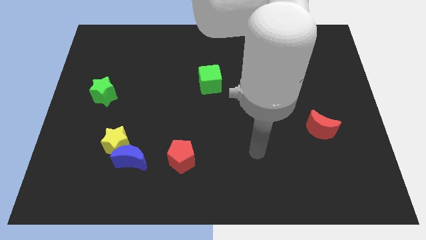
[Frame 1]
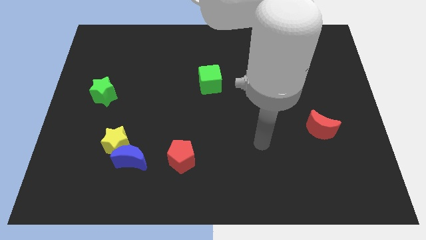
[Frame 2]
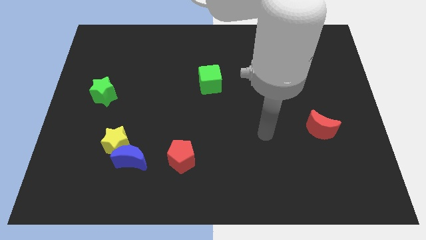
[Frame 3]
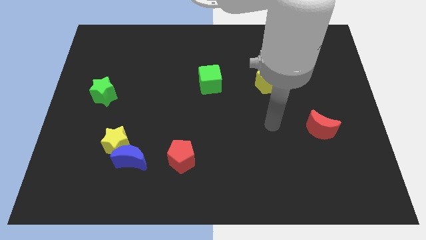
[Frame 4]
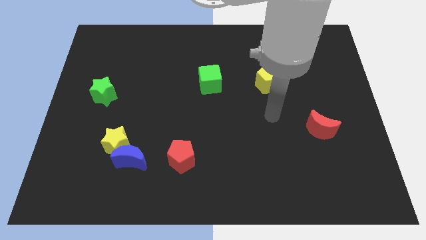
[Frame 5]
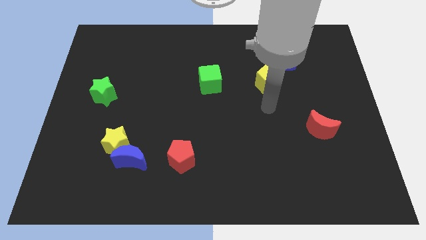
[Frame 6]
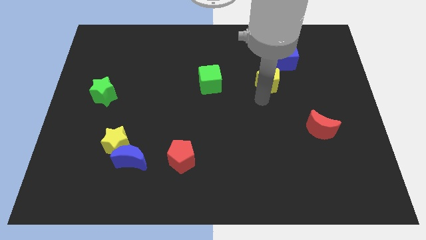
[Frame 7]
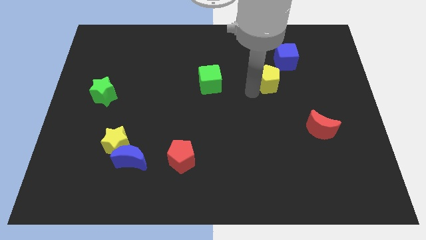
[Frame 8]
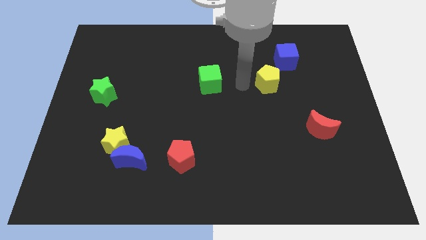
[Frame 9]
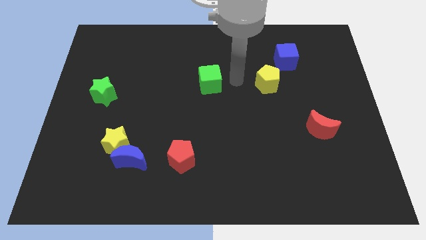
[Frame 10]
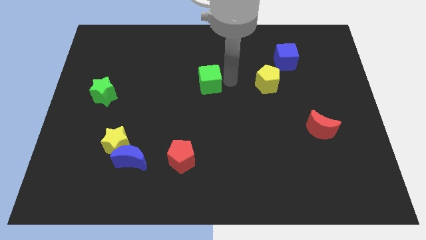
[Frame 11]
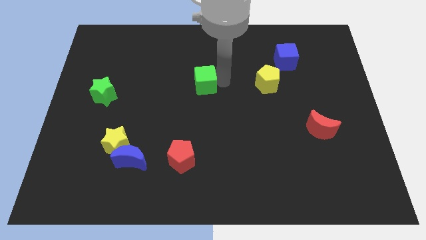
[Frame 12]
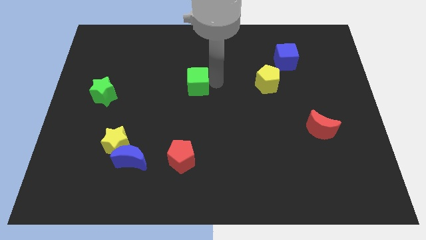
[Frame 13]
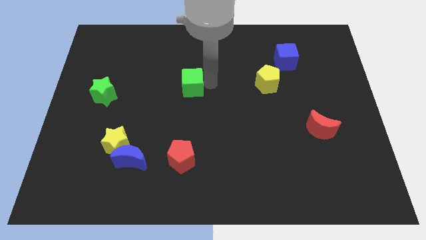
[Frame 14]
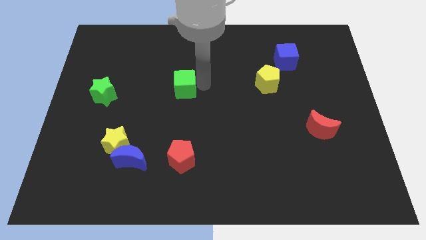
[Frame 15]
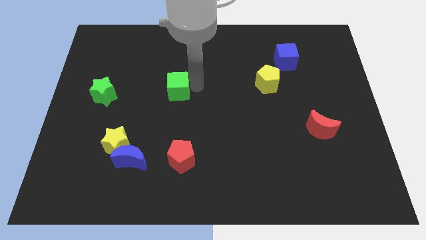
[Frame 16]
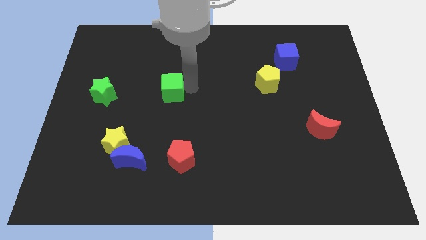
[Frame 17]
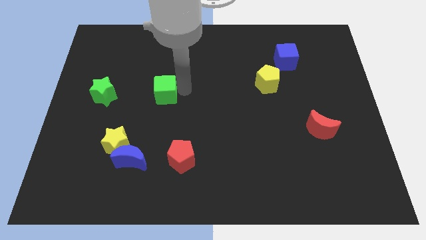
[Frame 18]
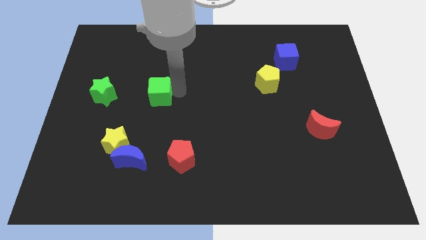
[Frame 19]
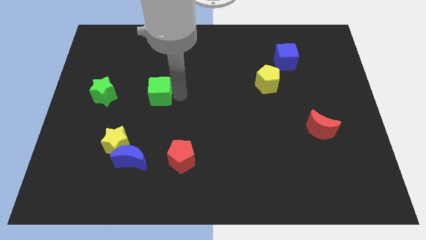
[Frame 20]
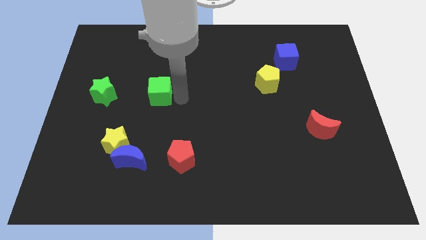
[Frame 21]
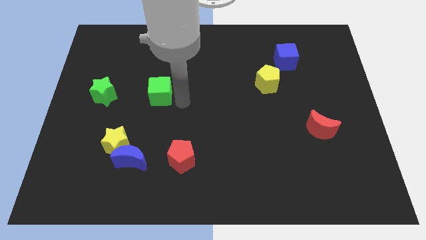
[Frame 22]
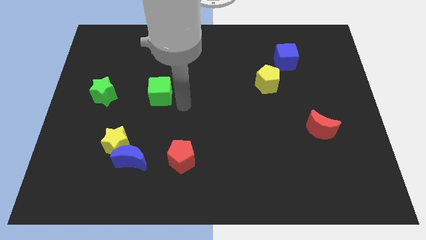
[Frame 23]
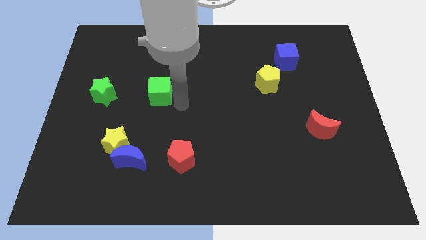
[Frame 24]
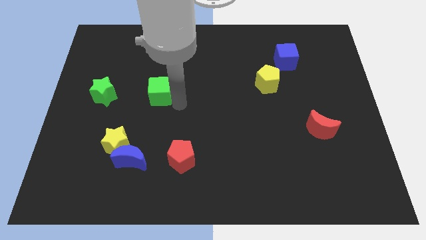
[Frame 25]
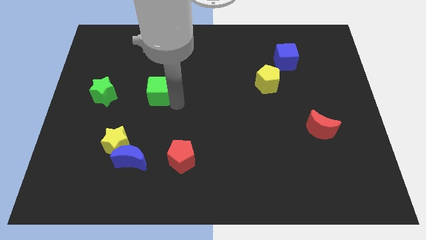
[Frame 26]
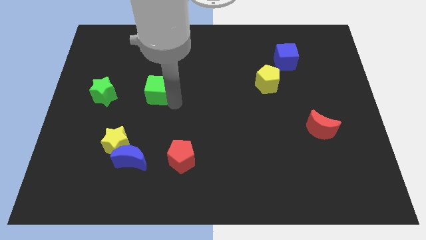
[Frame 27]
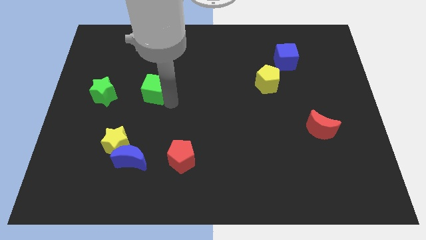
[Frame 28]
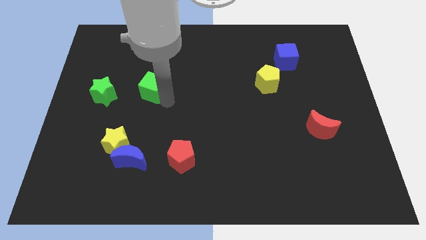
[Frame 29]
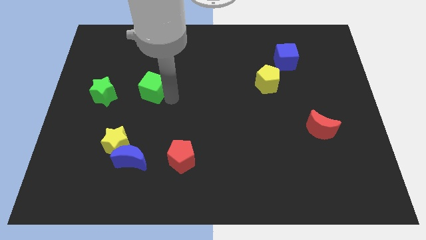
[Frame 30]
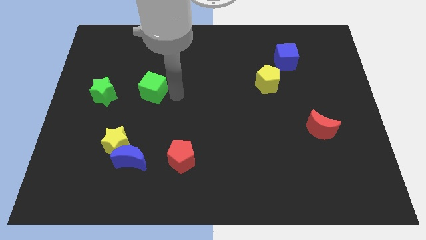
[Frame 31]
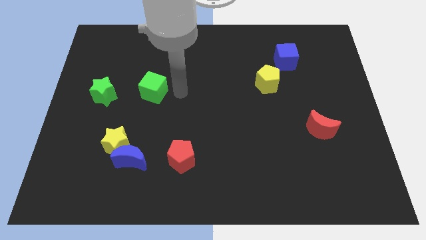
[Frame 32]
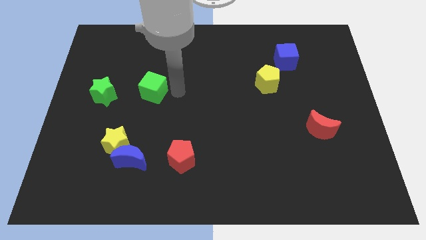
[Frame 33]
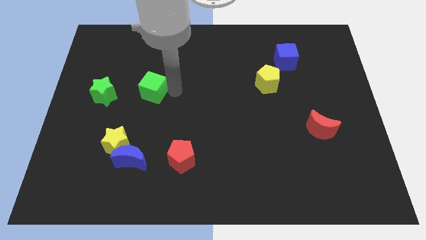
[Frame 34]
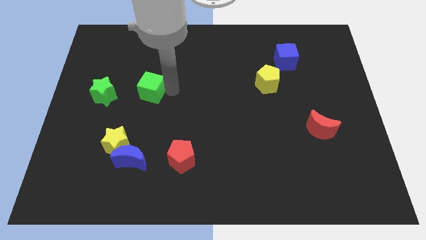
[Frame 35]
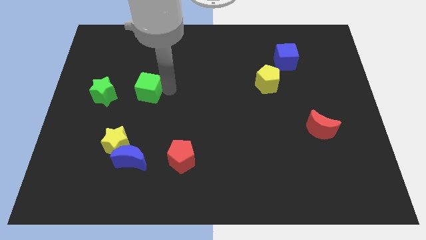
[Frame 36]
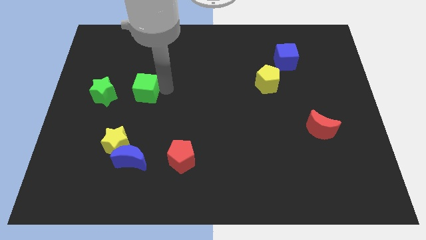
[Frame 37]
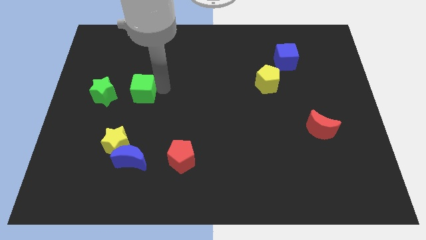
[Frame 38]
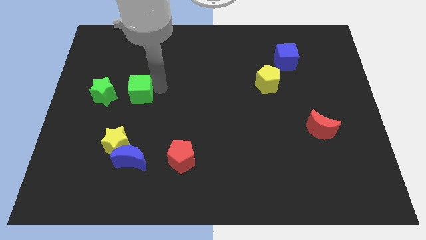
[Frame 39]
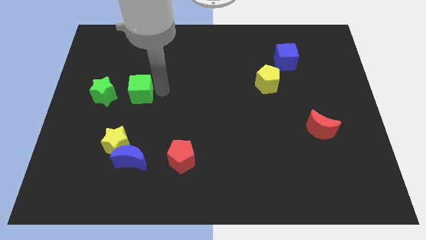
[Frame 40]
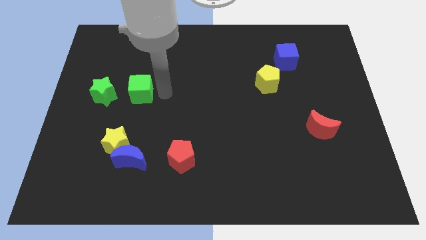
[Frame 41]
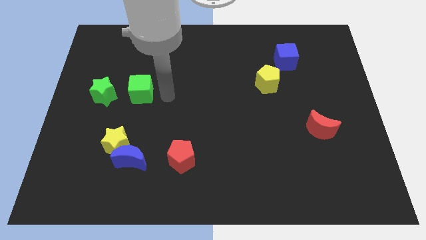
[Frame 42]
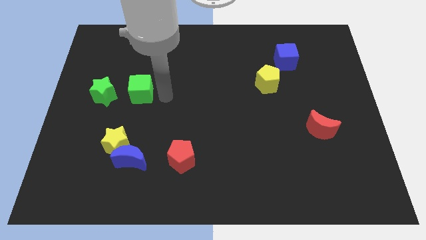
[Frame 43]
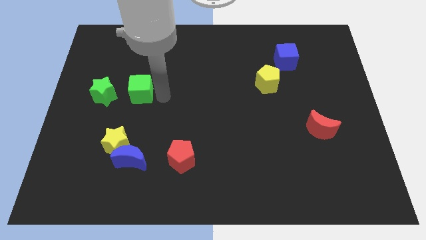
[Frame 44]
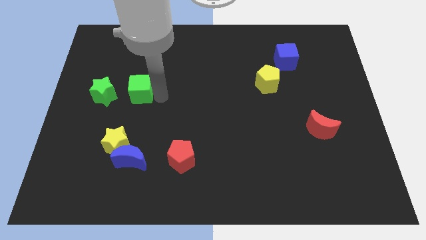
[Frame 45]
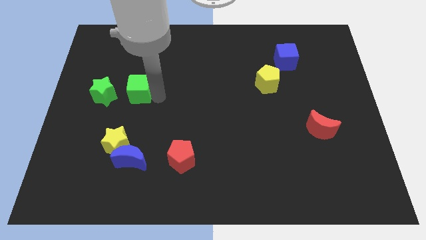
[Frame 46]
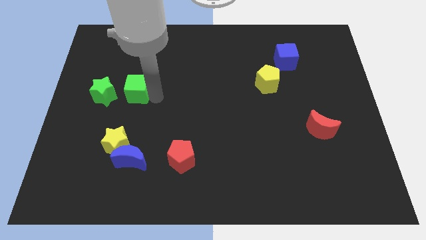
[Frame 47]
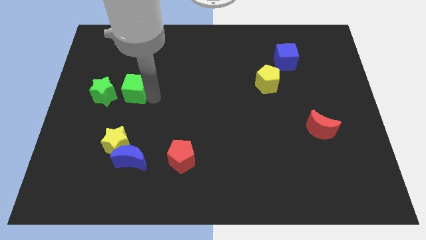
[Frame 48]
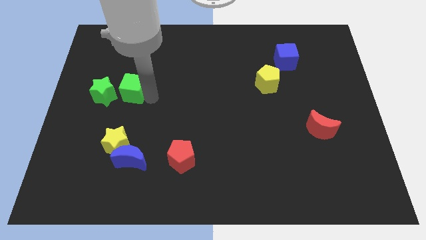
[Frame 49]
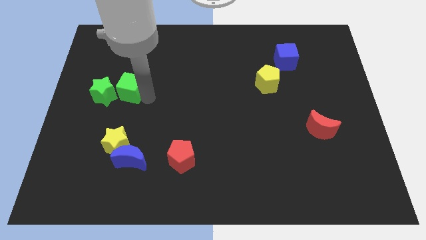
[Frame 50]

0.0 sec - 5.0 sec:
push the green cube towards the green star

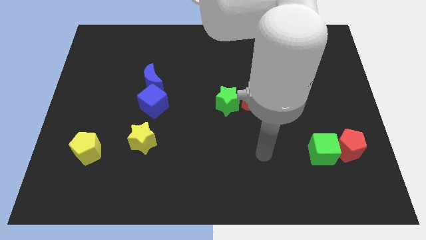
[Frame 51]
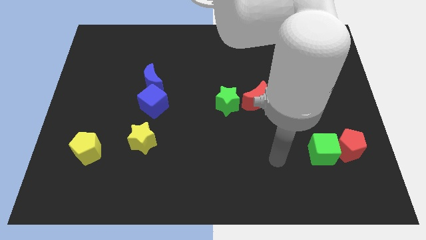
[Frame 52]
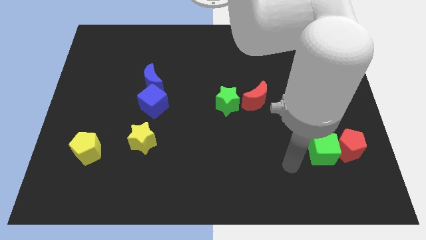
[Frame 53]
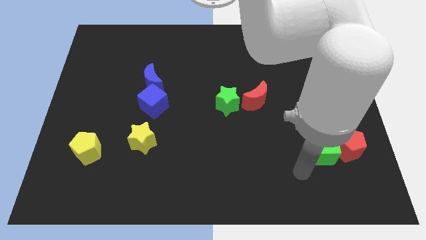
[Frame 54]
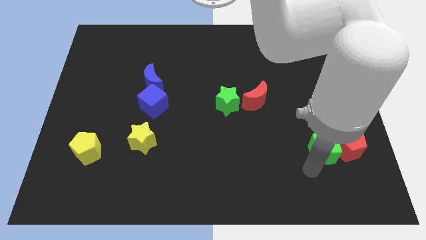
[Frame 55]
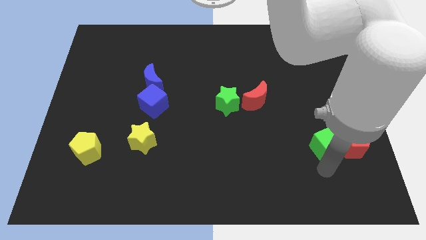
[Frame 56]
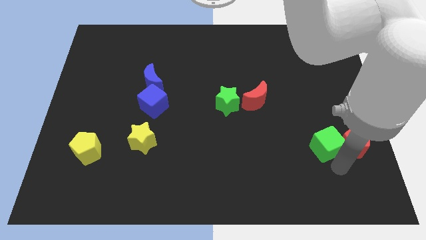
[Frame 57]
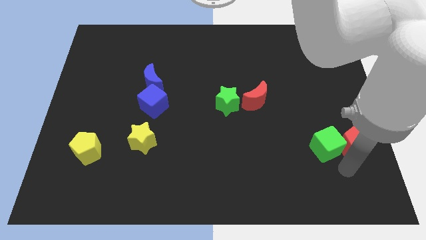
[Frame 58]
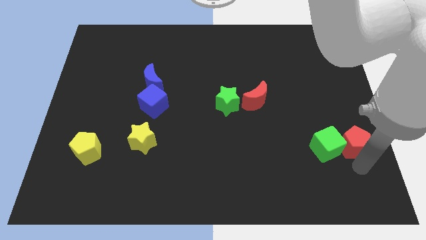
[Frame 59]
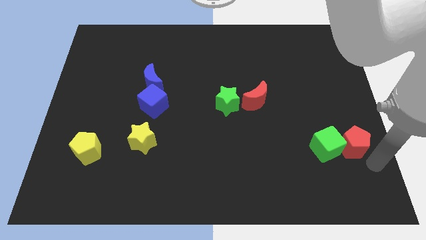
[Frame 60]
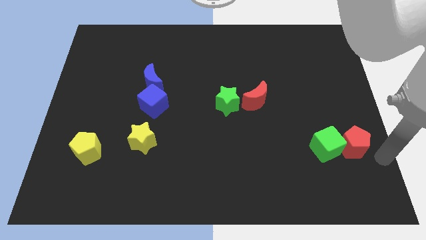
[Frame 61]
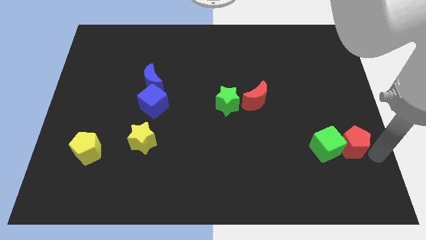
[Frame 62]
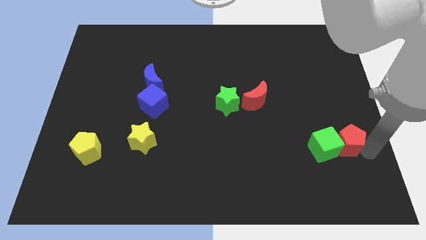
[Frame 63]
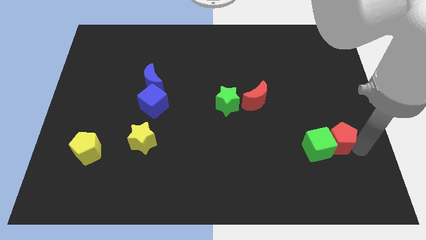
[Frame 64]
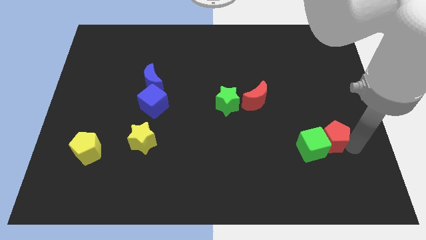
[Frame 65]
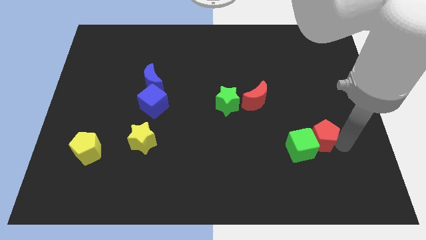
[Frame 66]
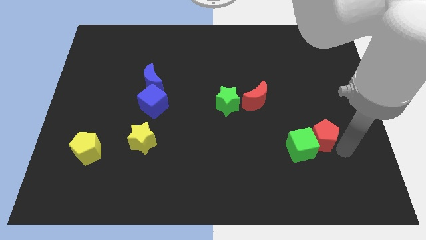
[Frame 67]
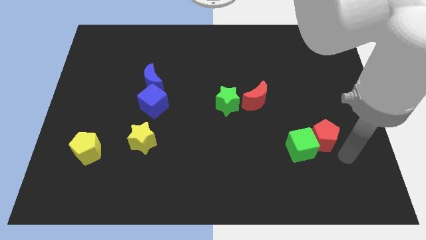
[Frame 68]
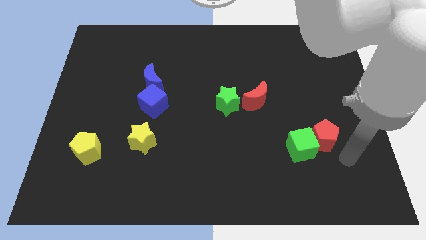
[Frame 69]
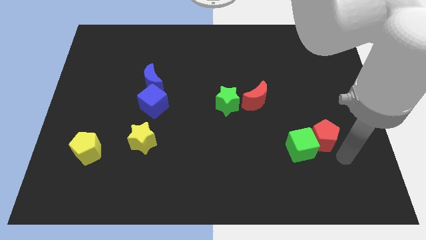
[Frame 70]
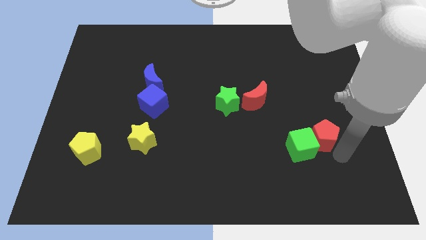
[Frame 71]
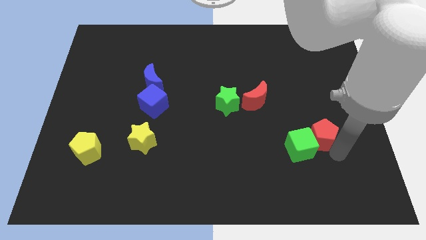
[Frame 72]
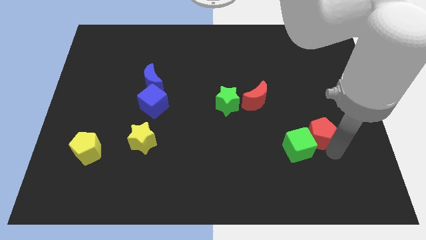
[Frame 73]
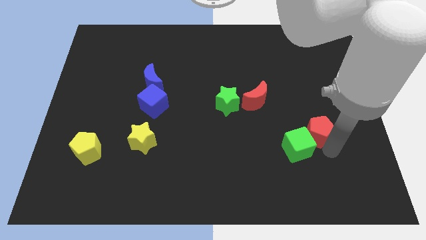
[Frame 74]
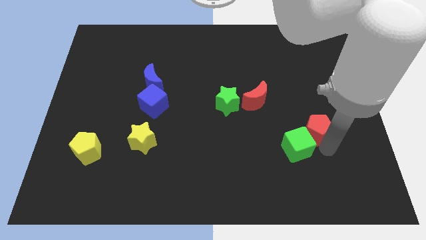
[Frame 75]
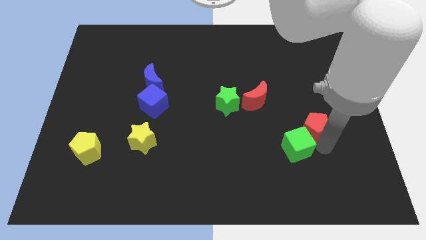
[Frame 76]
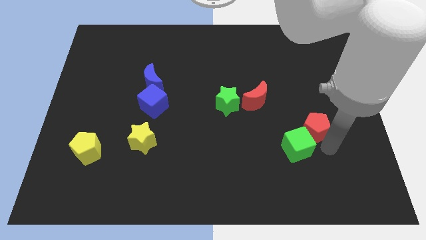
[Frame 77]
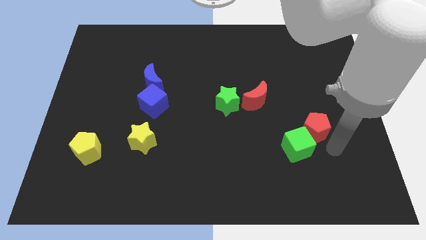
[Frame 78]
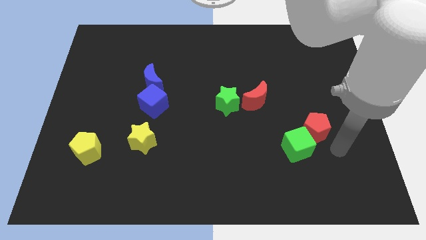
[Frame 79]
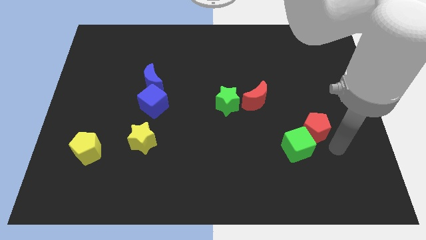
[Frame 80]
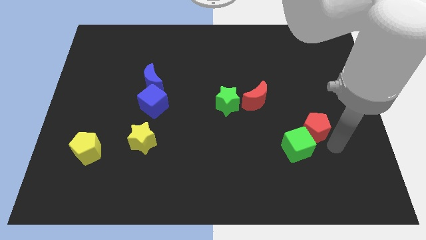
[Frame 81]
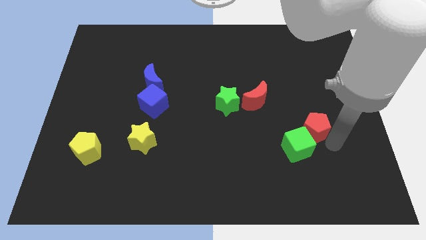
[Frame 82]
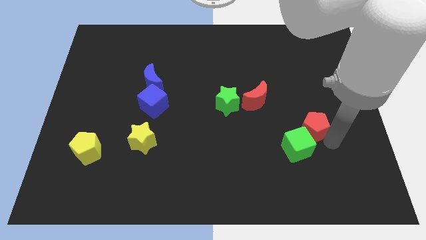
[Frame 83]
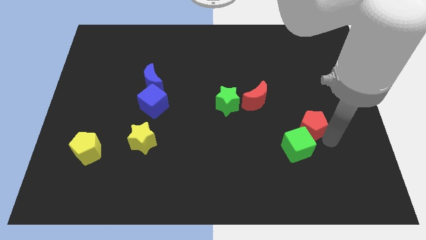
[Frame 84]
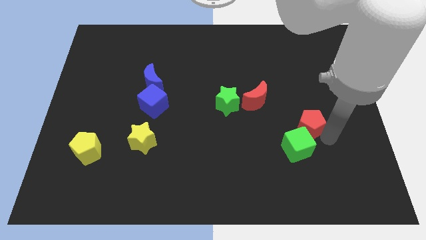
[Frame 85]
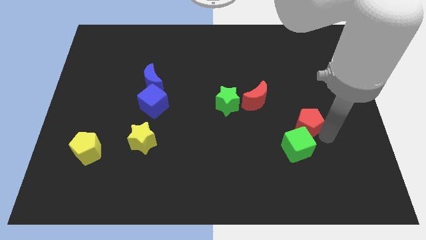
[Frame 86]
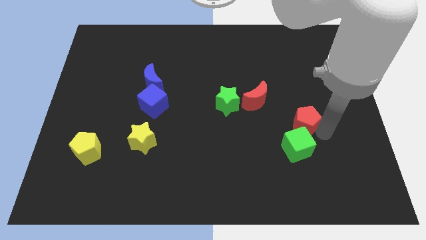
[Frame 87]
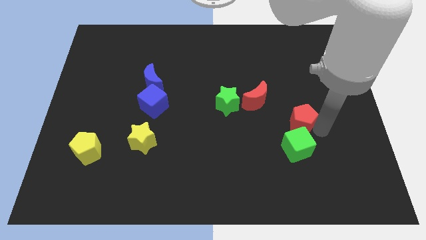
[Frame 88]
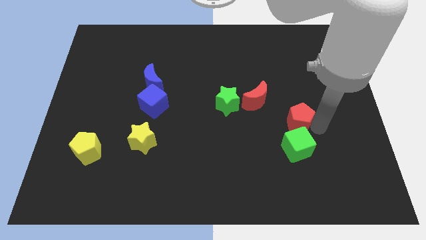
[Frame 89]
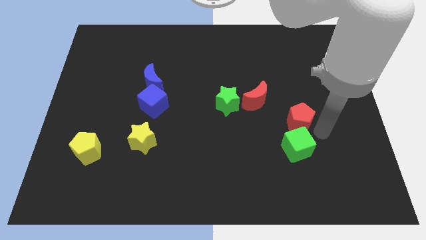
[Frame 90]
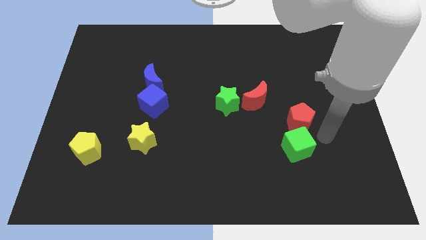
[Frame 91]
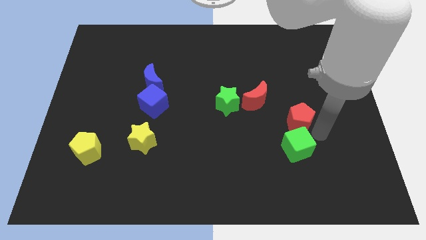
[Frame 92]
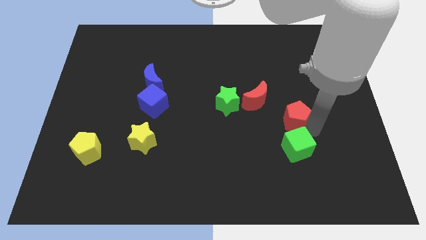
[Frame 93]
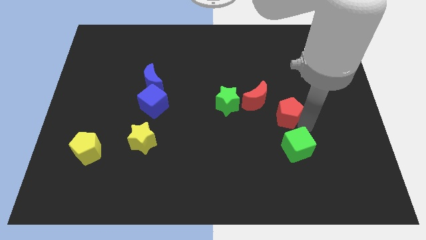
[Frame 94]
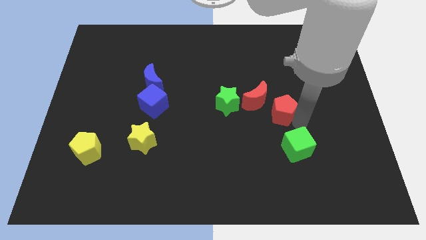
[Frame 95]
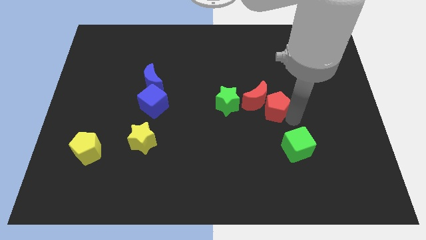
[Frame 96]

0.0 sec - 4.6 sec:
slide the red pentagon towards the red moon
